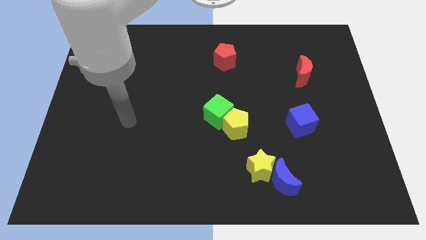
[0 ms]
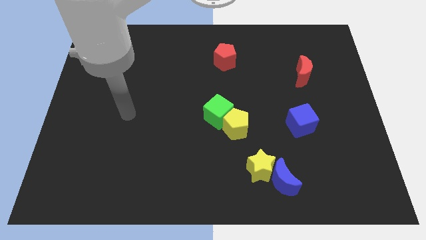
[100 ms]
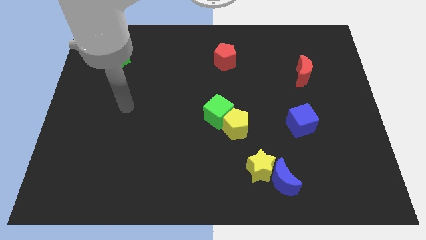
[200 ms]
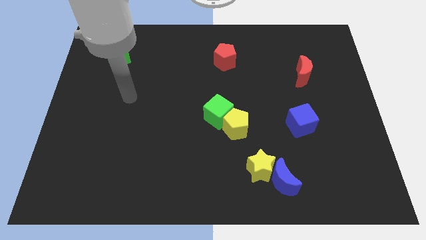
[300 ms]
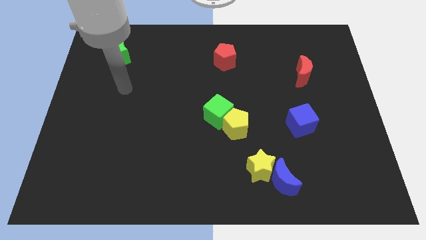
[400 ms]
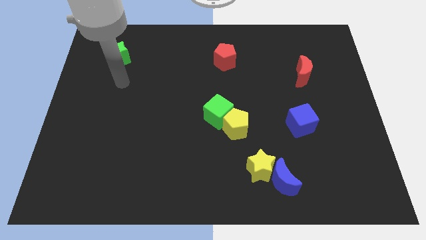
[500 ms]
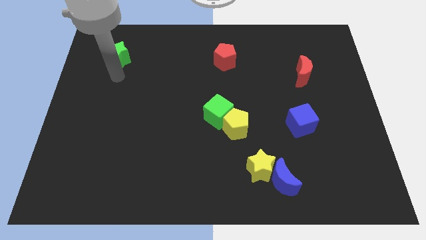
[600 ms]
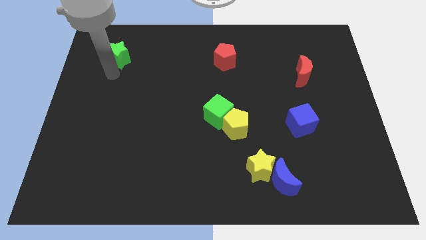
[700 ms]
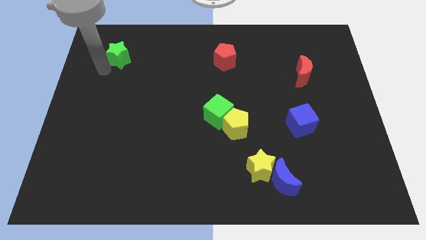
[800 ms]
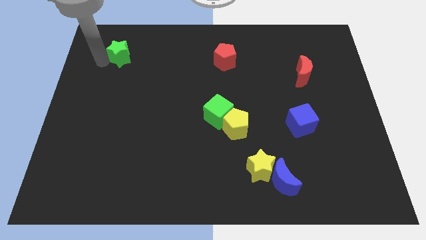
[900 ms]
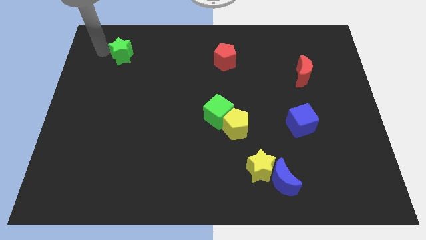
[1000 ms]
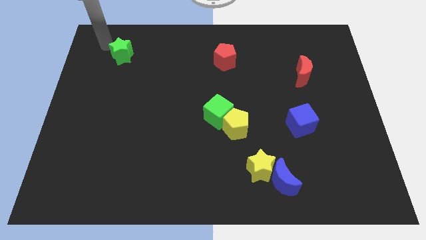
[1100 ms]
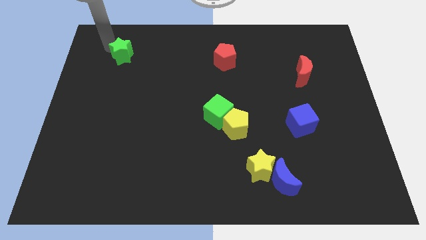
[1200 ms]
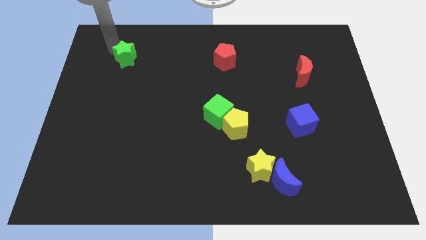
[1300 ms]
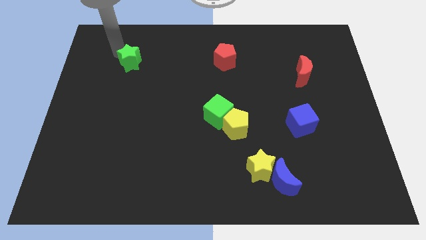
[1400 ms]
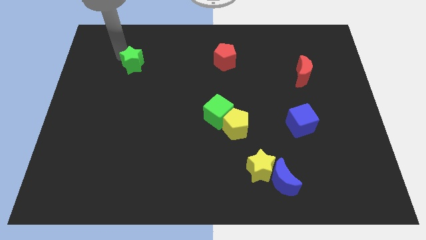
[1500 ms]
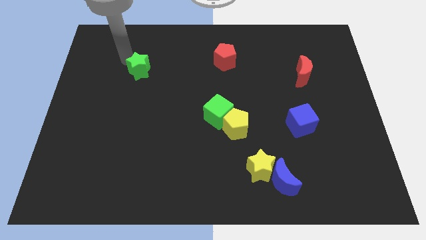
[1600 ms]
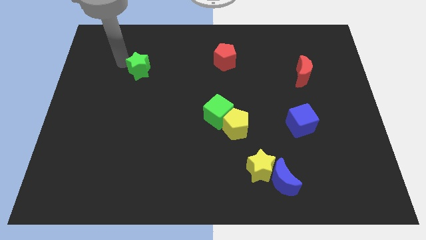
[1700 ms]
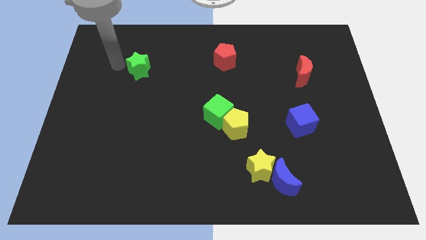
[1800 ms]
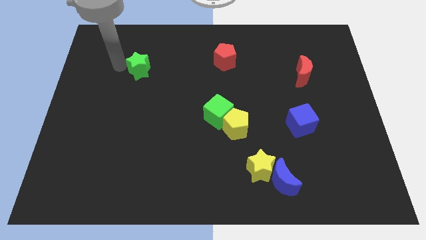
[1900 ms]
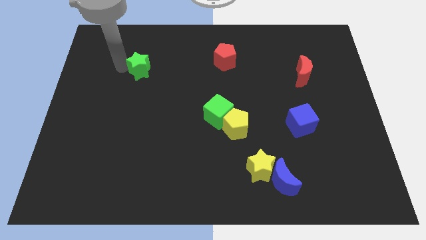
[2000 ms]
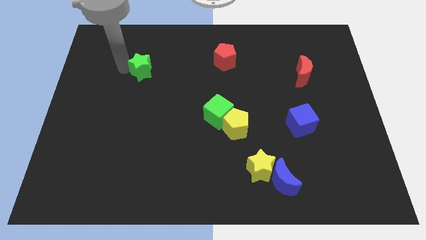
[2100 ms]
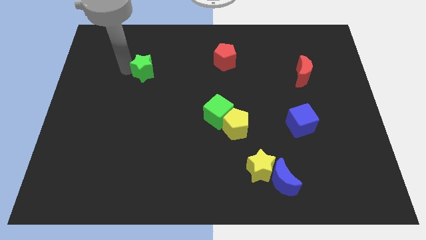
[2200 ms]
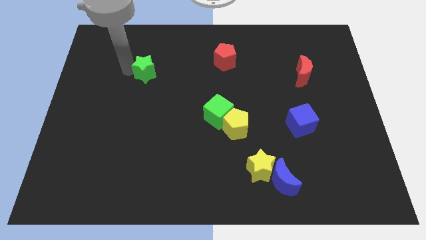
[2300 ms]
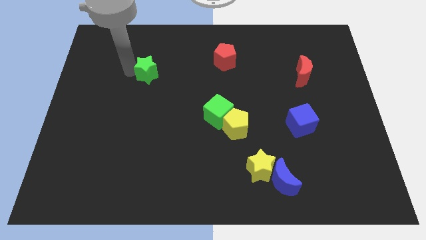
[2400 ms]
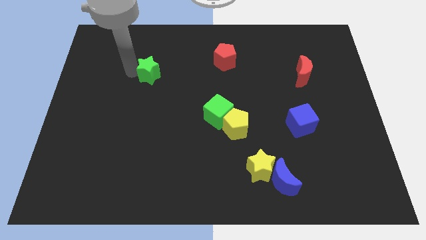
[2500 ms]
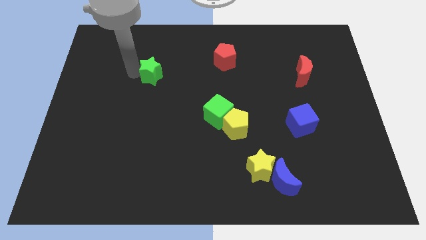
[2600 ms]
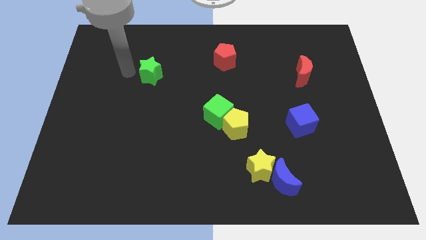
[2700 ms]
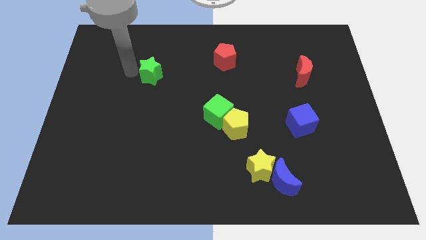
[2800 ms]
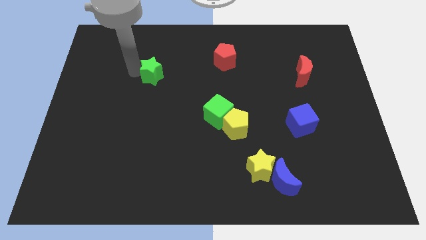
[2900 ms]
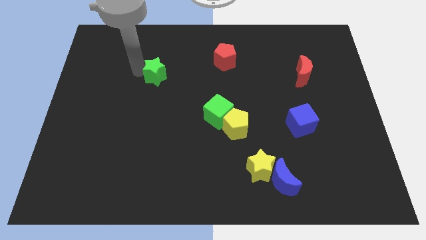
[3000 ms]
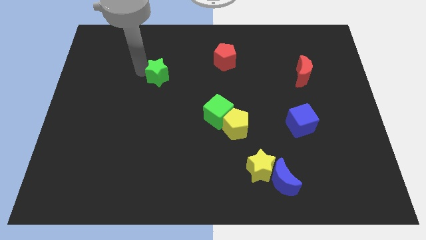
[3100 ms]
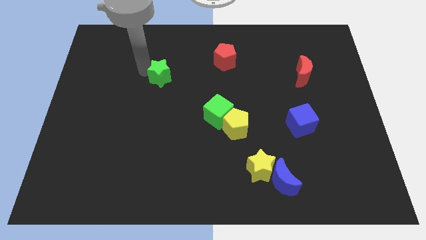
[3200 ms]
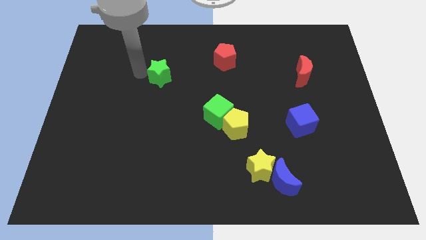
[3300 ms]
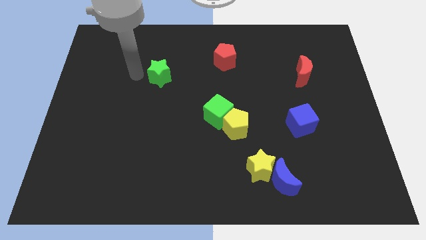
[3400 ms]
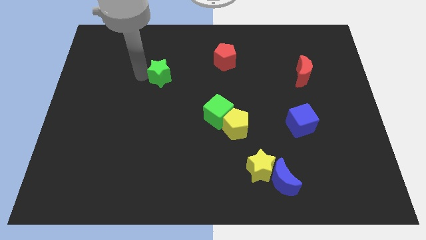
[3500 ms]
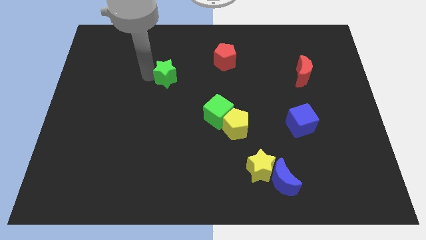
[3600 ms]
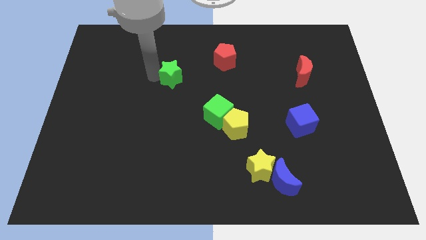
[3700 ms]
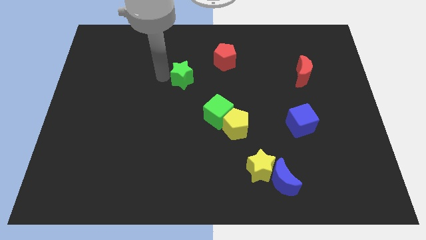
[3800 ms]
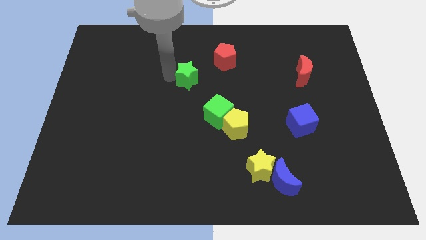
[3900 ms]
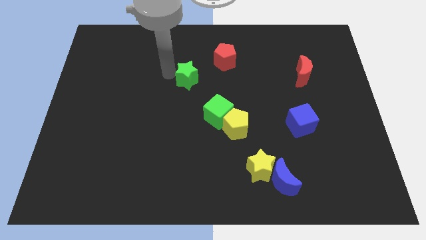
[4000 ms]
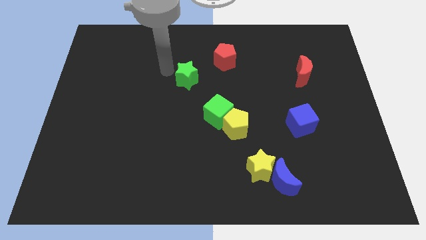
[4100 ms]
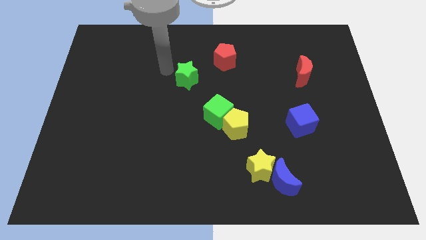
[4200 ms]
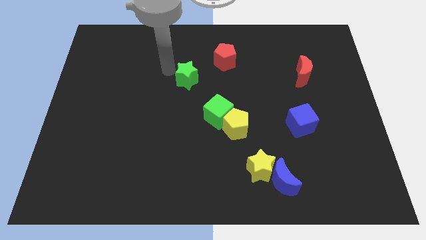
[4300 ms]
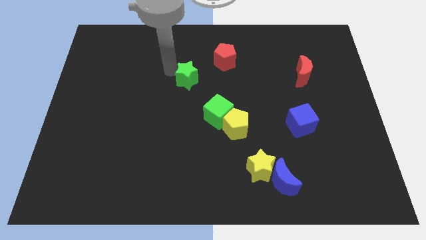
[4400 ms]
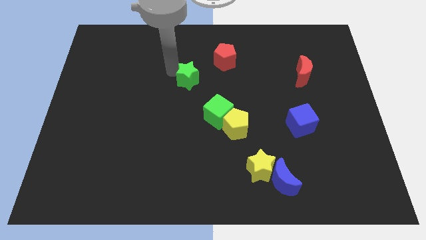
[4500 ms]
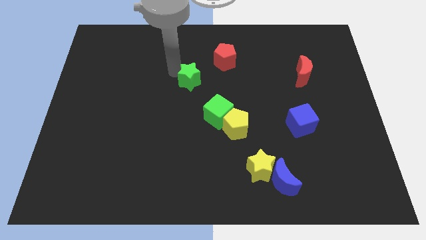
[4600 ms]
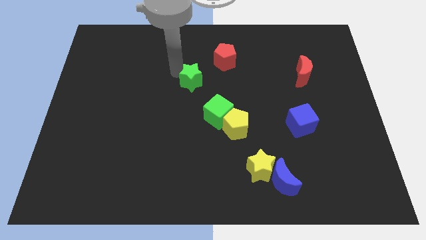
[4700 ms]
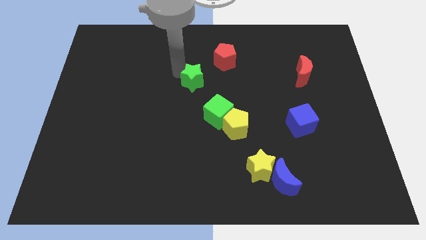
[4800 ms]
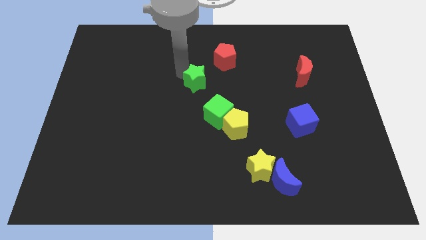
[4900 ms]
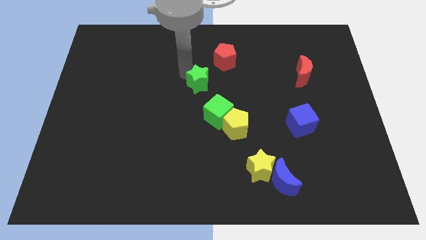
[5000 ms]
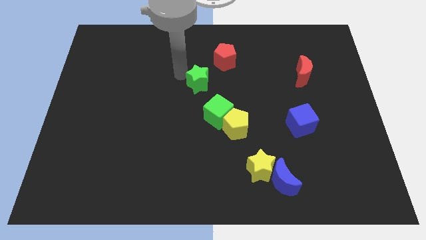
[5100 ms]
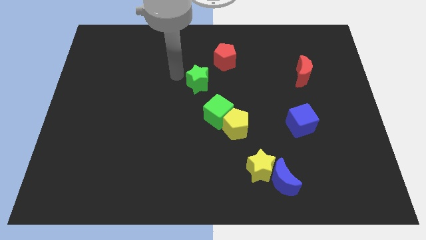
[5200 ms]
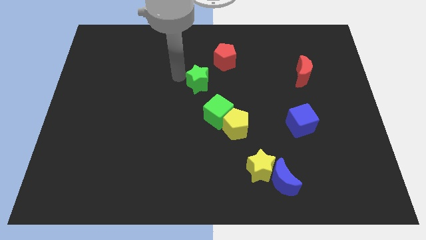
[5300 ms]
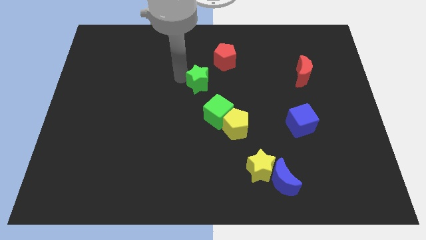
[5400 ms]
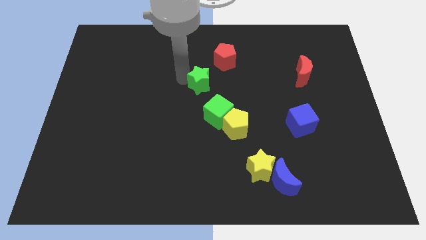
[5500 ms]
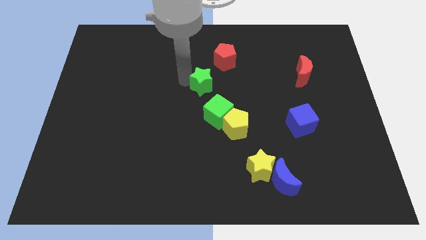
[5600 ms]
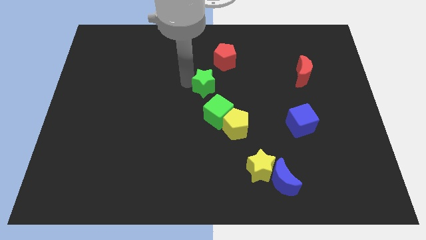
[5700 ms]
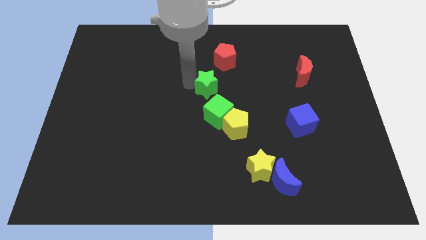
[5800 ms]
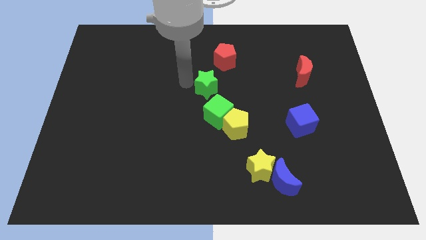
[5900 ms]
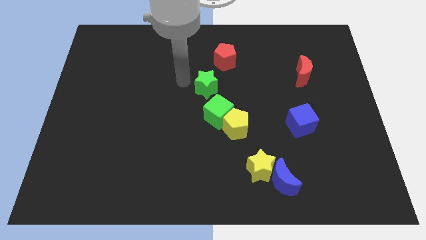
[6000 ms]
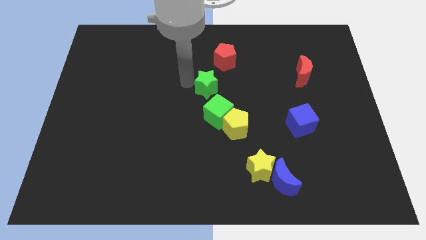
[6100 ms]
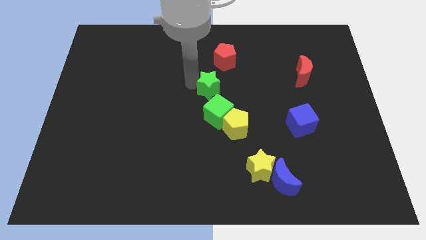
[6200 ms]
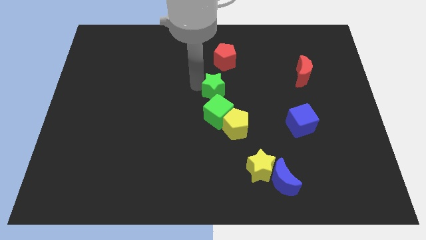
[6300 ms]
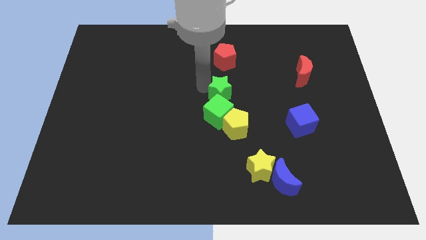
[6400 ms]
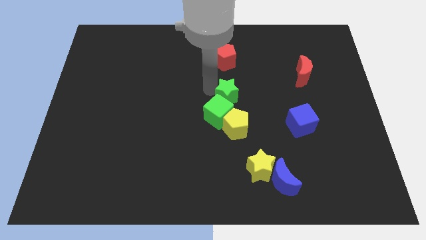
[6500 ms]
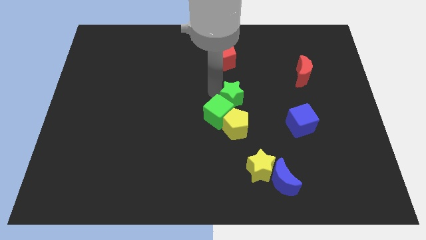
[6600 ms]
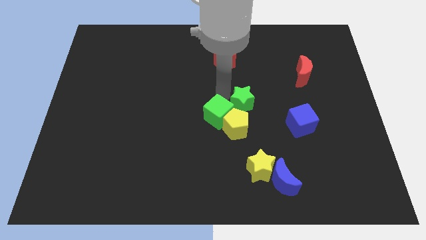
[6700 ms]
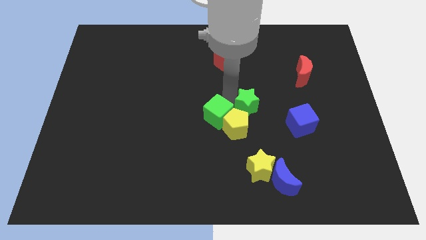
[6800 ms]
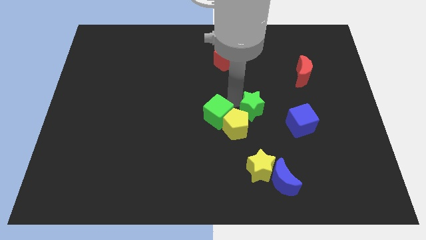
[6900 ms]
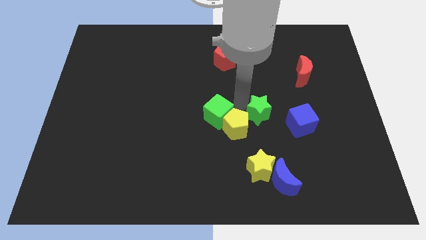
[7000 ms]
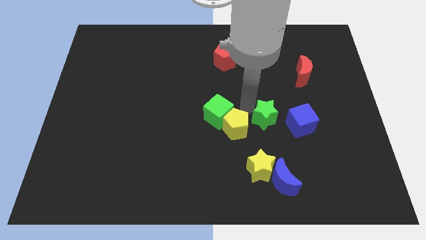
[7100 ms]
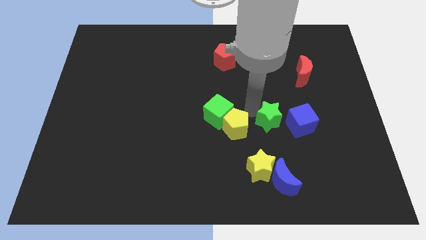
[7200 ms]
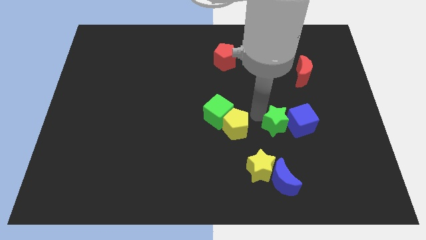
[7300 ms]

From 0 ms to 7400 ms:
move the green star next to the blue cube

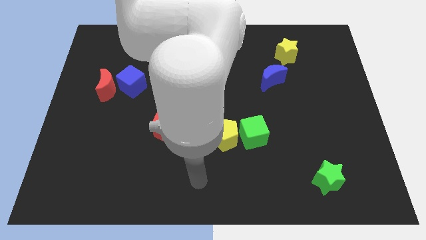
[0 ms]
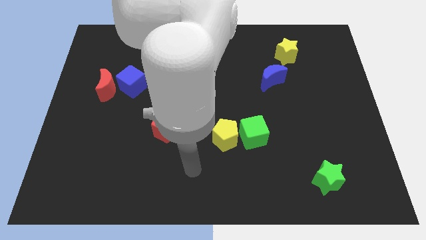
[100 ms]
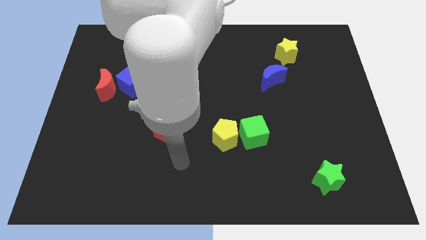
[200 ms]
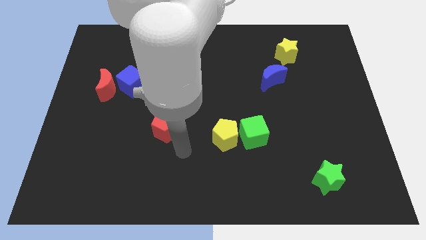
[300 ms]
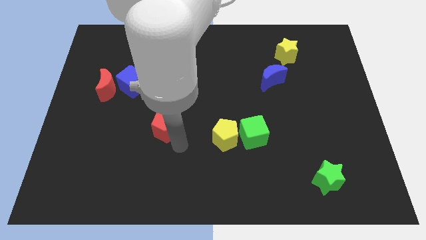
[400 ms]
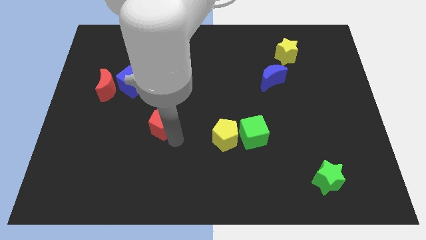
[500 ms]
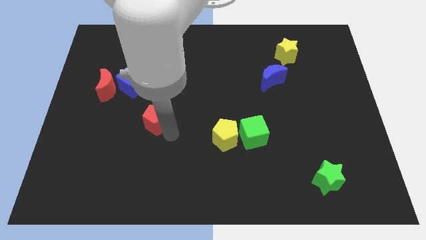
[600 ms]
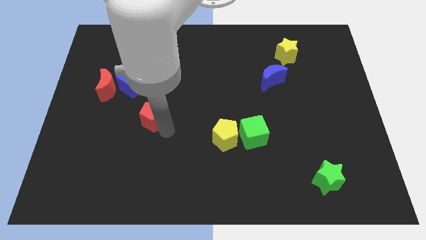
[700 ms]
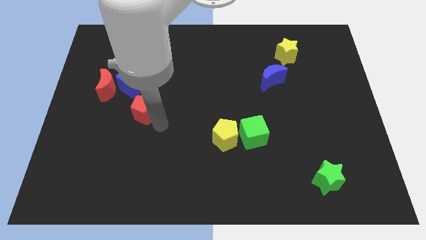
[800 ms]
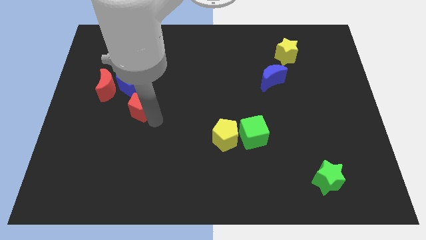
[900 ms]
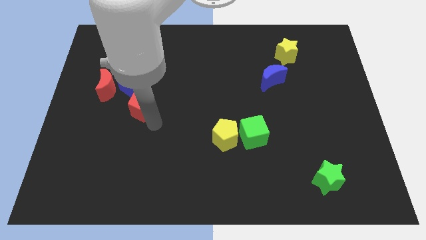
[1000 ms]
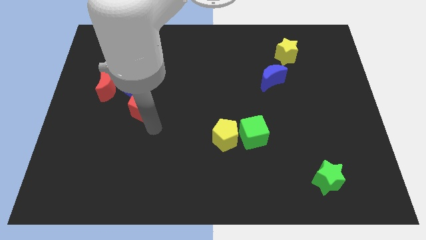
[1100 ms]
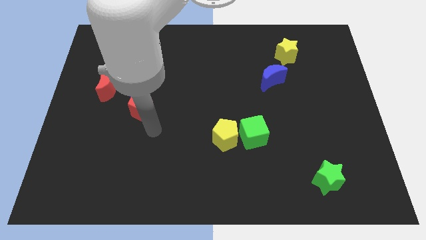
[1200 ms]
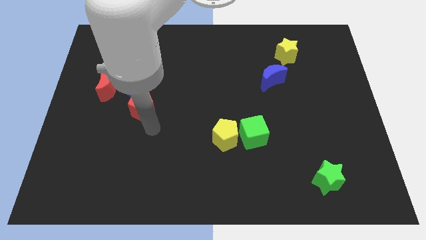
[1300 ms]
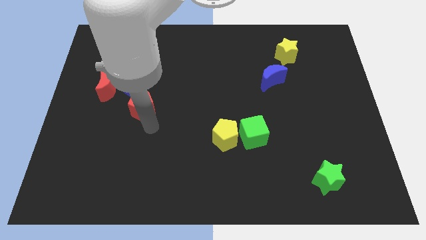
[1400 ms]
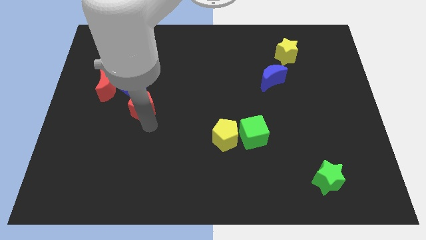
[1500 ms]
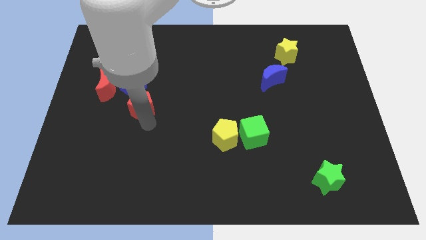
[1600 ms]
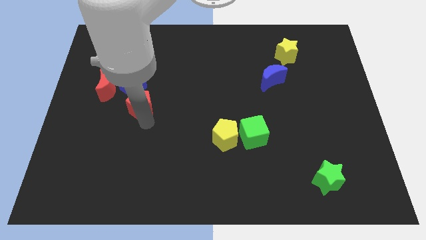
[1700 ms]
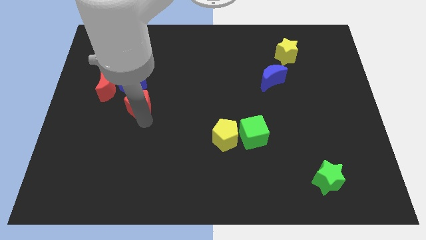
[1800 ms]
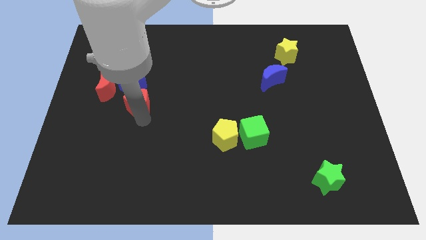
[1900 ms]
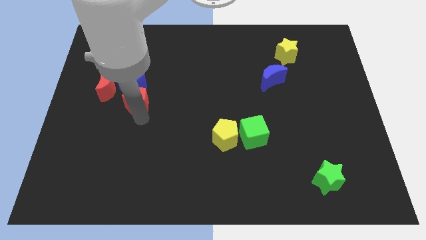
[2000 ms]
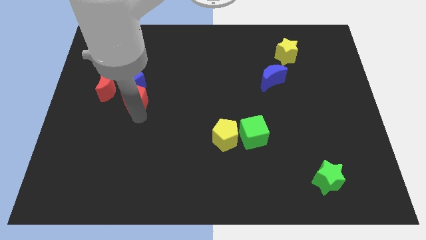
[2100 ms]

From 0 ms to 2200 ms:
put the red pentagon towards the blue cube
